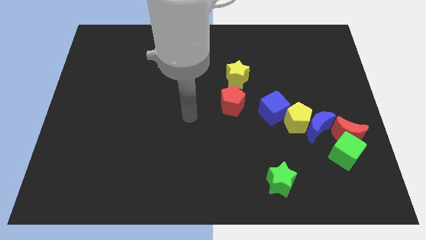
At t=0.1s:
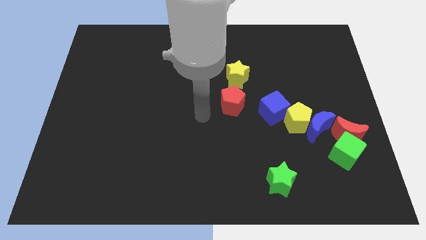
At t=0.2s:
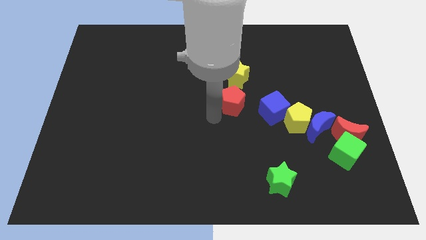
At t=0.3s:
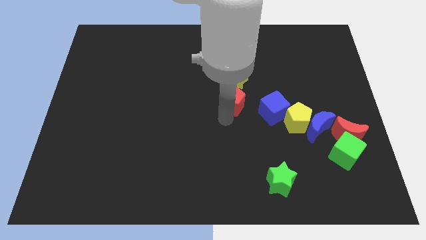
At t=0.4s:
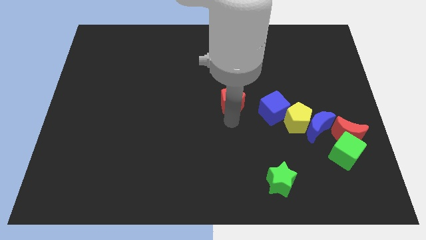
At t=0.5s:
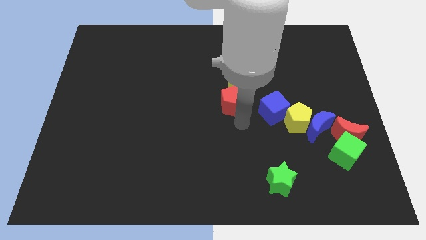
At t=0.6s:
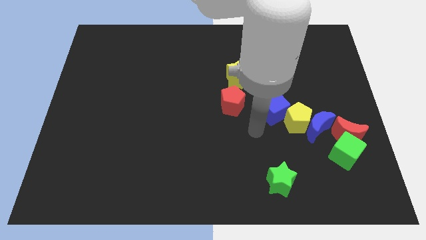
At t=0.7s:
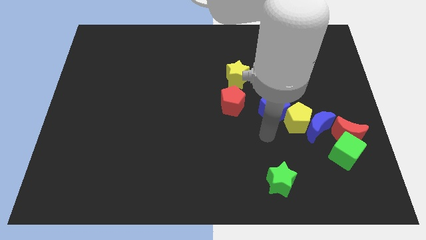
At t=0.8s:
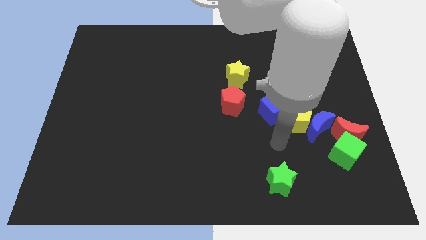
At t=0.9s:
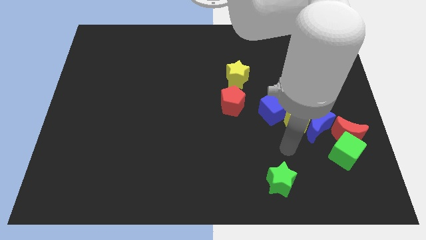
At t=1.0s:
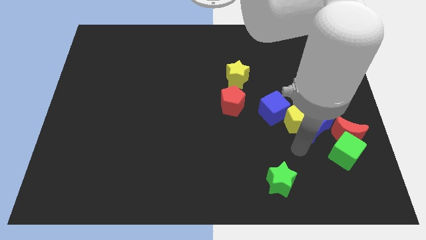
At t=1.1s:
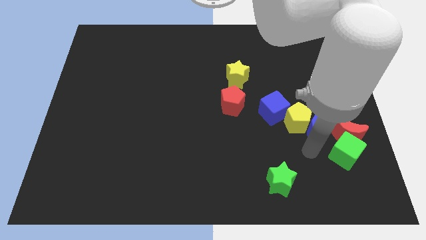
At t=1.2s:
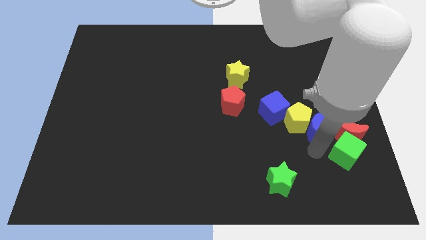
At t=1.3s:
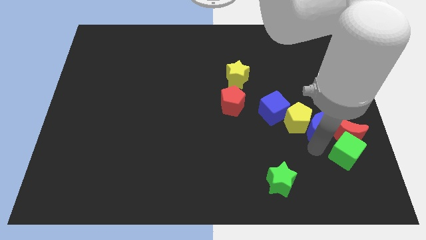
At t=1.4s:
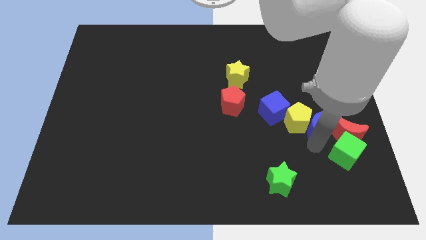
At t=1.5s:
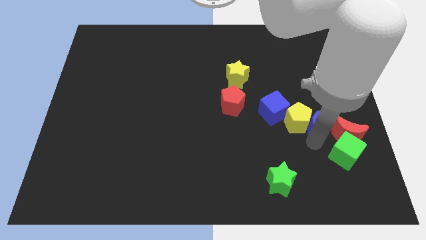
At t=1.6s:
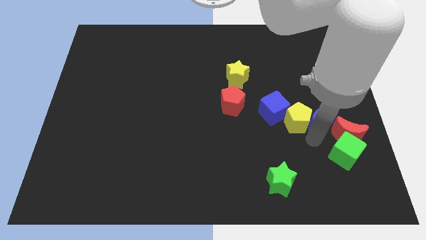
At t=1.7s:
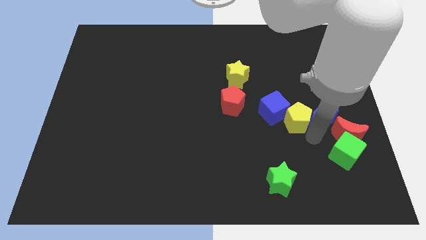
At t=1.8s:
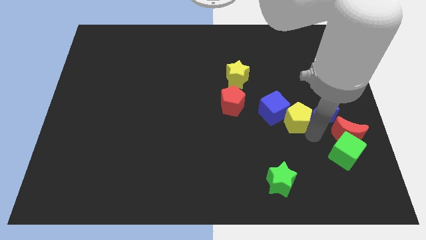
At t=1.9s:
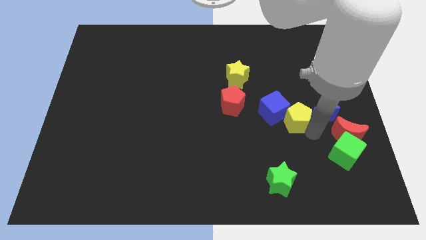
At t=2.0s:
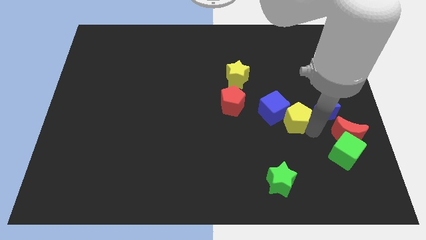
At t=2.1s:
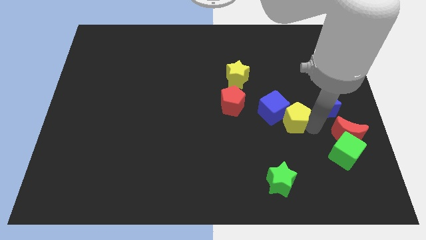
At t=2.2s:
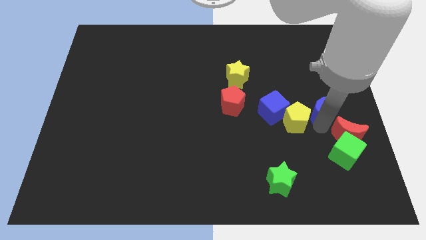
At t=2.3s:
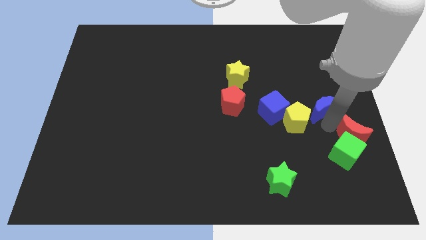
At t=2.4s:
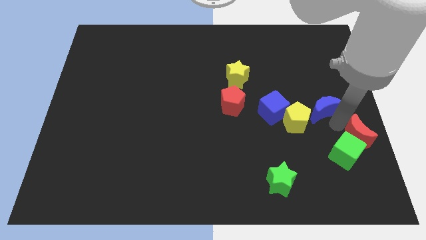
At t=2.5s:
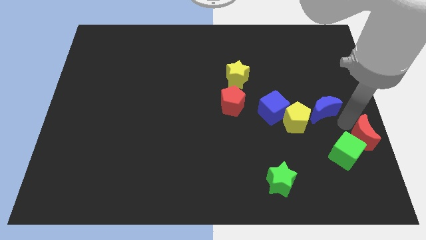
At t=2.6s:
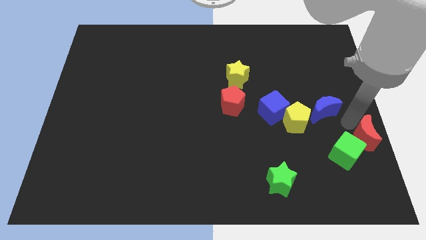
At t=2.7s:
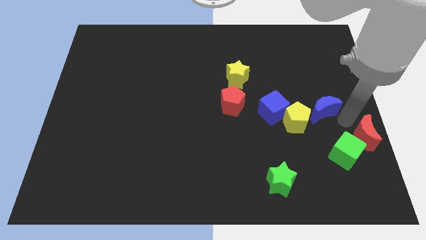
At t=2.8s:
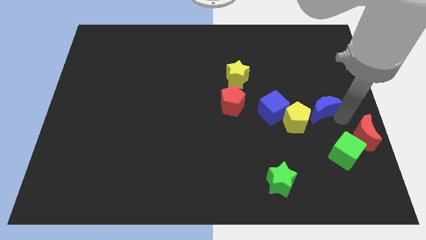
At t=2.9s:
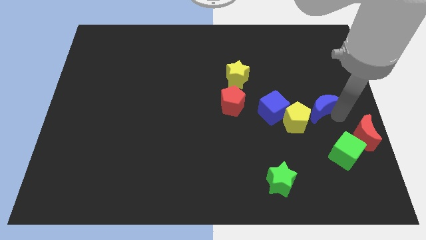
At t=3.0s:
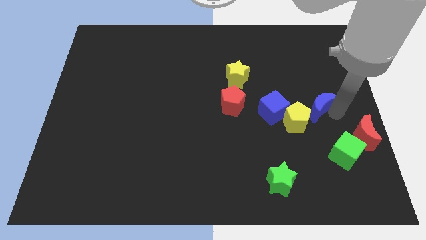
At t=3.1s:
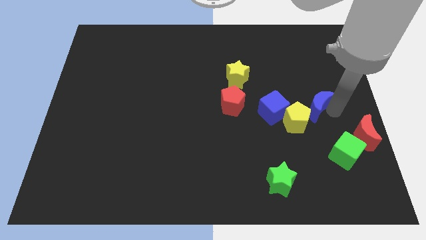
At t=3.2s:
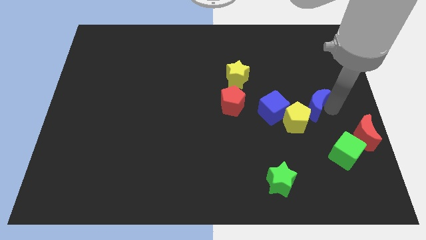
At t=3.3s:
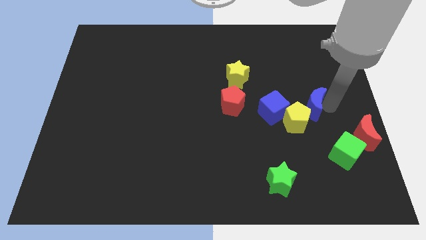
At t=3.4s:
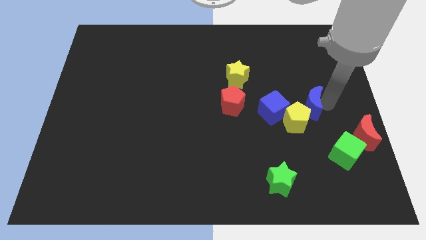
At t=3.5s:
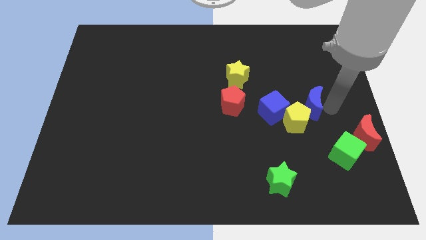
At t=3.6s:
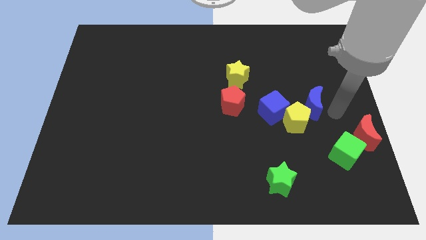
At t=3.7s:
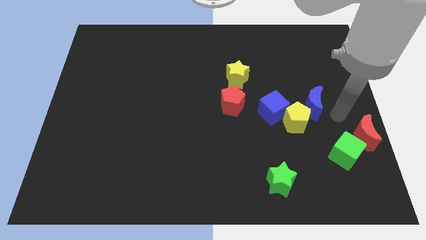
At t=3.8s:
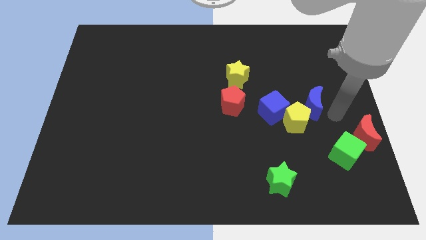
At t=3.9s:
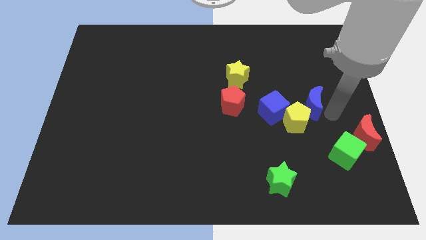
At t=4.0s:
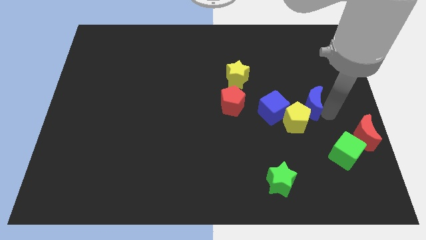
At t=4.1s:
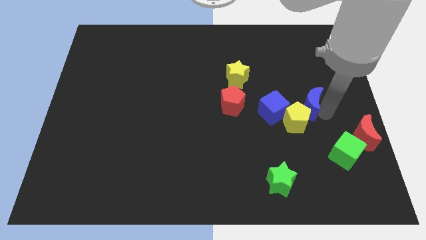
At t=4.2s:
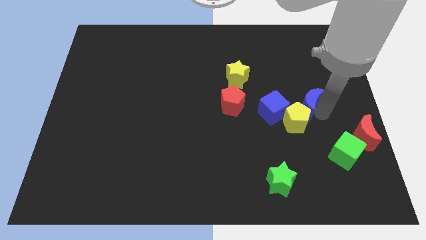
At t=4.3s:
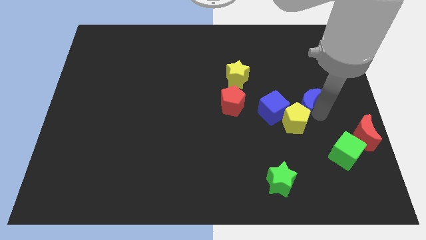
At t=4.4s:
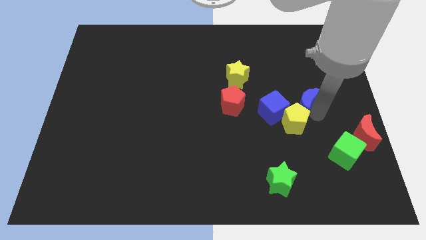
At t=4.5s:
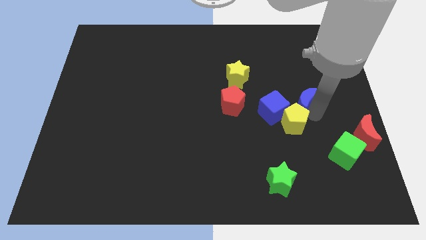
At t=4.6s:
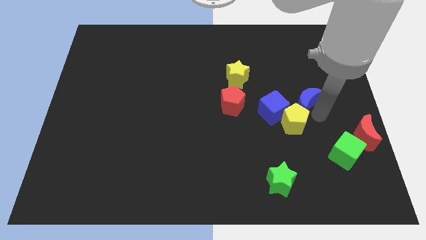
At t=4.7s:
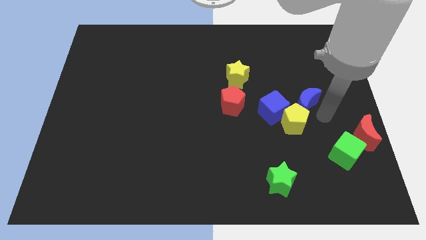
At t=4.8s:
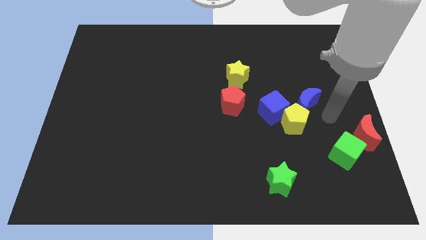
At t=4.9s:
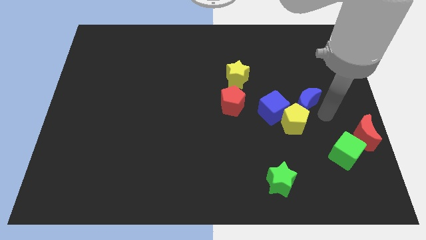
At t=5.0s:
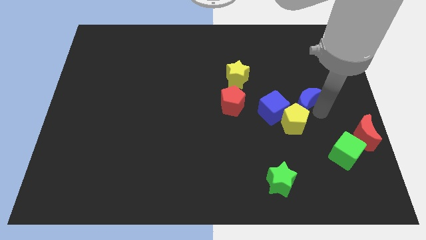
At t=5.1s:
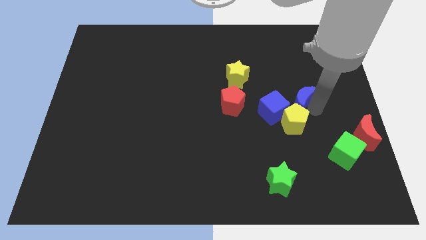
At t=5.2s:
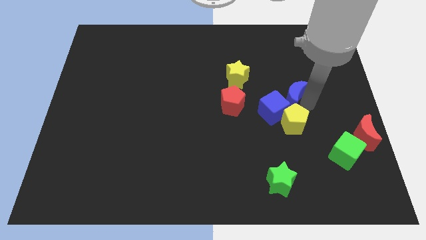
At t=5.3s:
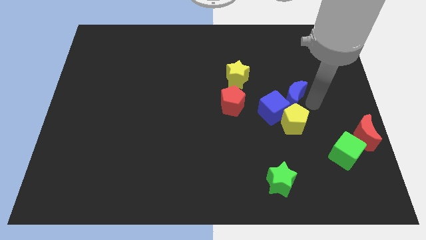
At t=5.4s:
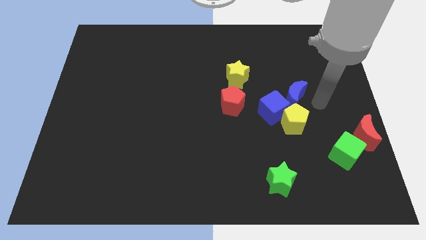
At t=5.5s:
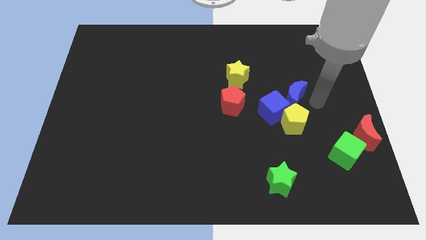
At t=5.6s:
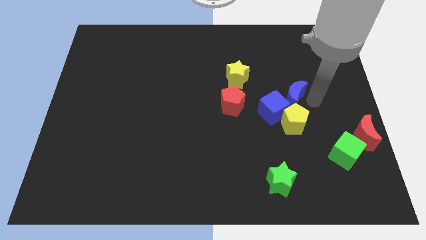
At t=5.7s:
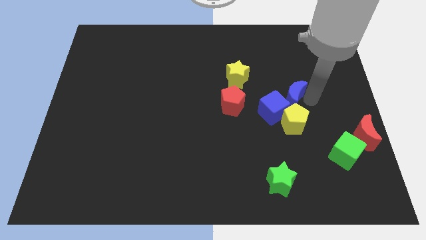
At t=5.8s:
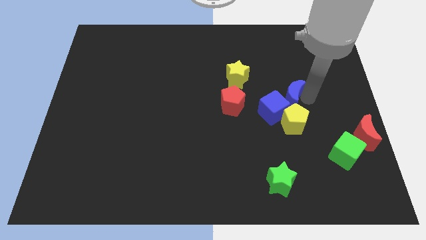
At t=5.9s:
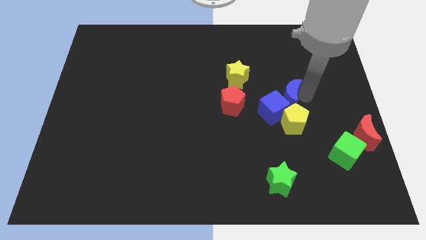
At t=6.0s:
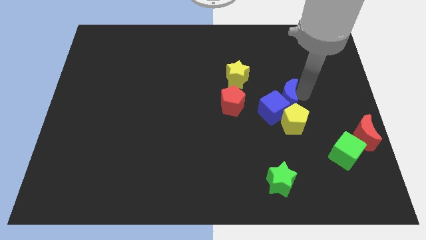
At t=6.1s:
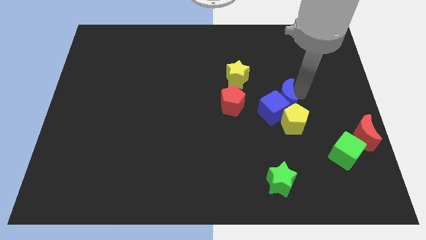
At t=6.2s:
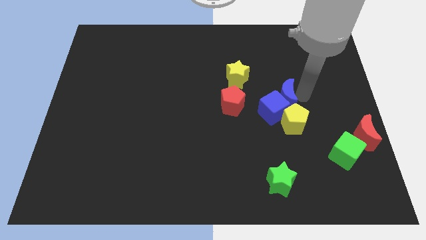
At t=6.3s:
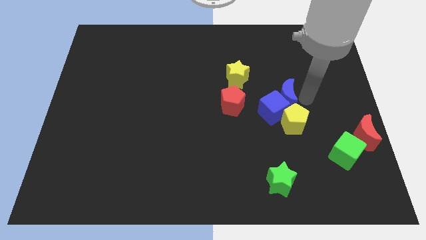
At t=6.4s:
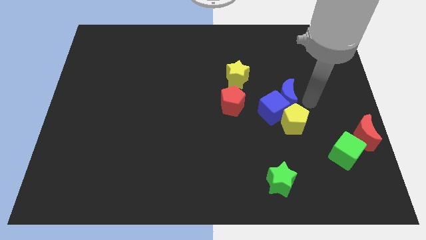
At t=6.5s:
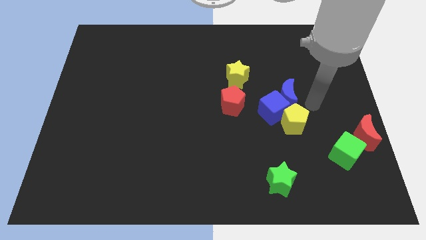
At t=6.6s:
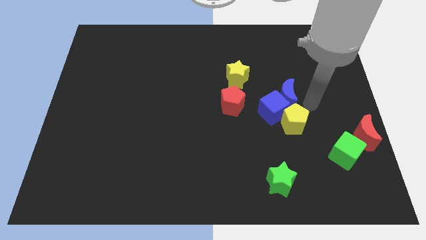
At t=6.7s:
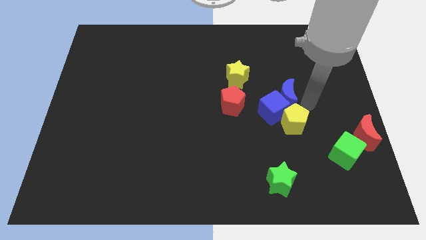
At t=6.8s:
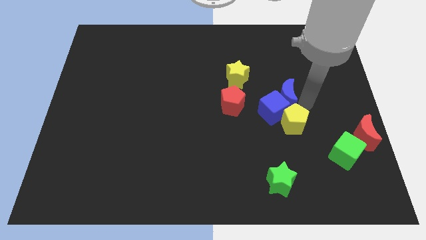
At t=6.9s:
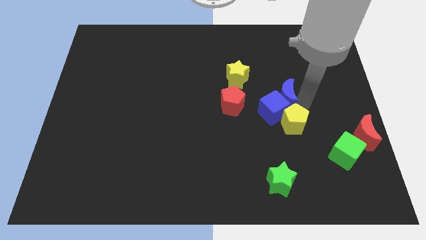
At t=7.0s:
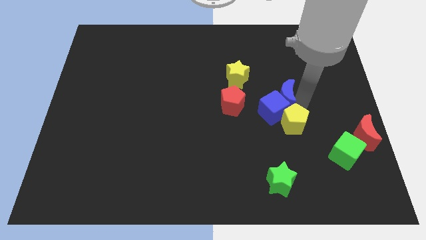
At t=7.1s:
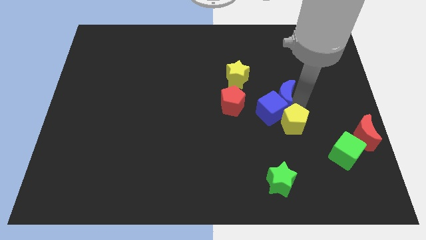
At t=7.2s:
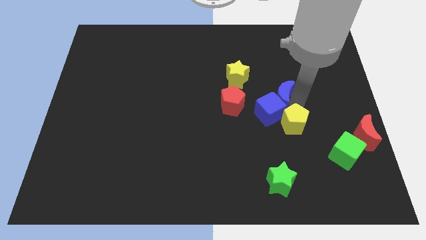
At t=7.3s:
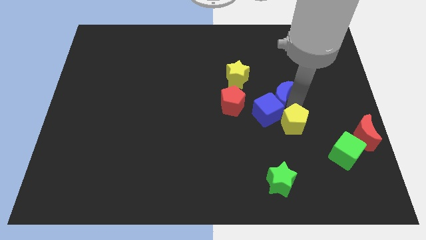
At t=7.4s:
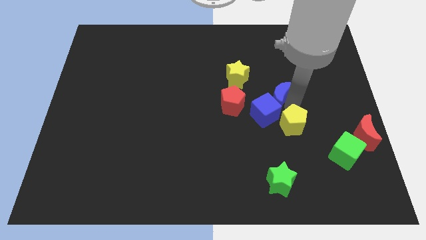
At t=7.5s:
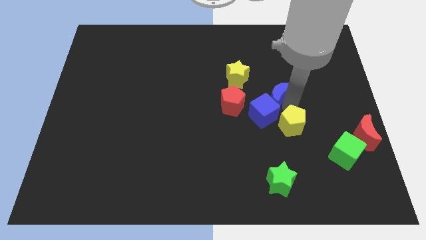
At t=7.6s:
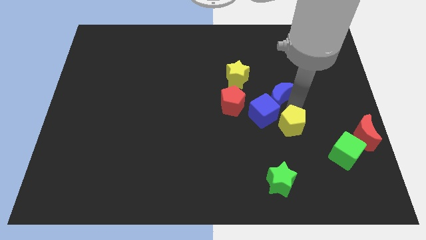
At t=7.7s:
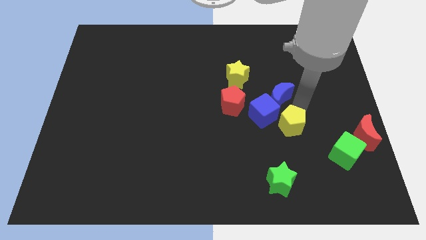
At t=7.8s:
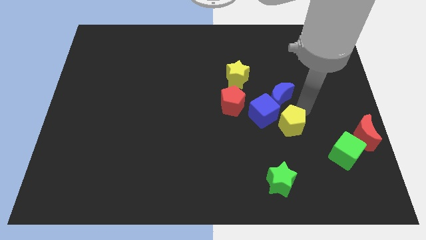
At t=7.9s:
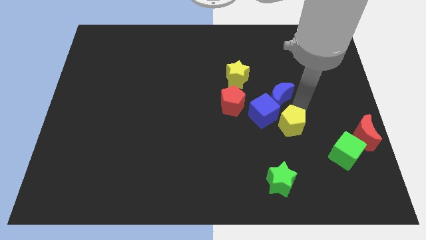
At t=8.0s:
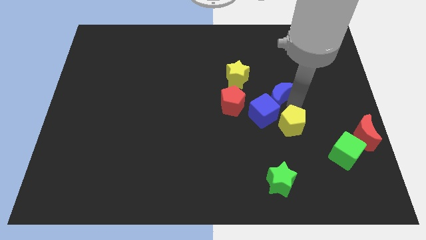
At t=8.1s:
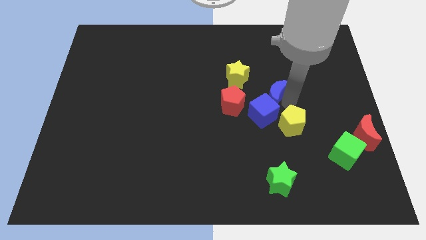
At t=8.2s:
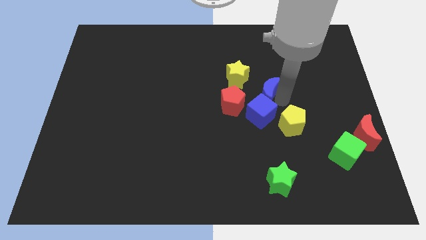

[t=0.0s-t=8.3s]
move the blue moon diagonally up and to the right of the red pentagon
